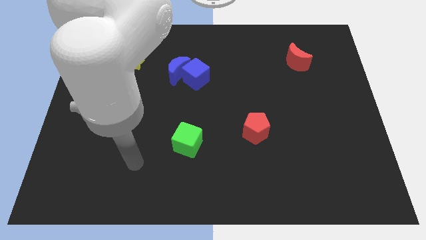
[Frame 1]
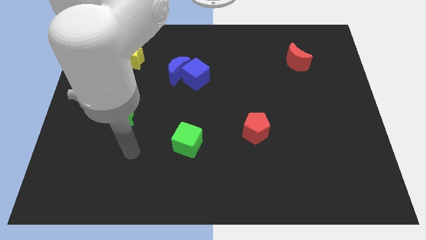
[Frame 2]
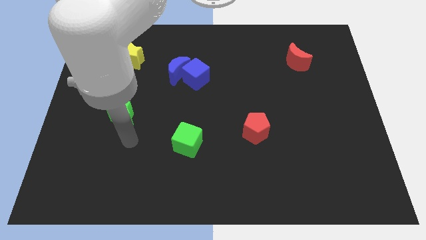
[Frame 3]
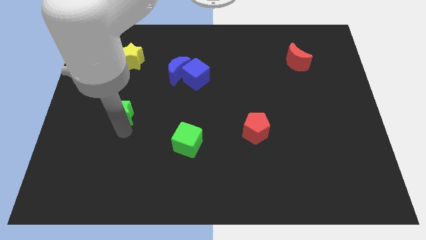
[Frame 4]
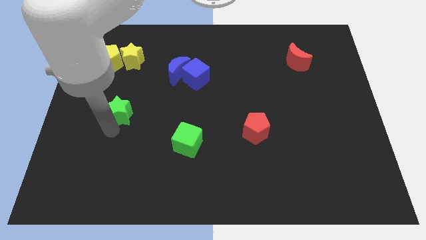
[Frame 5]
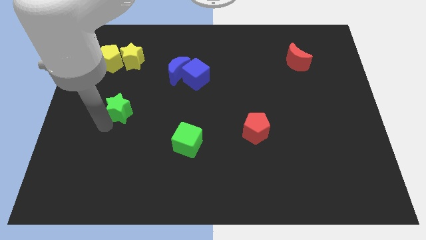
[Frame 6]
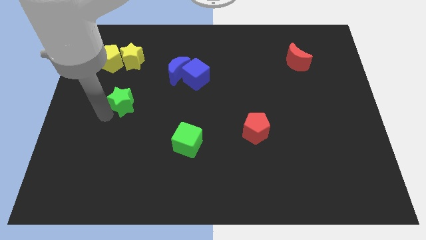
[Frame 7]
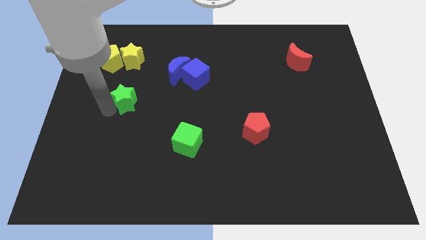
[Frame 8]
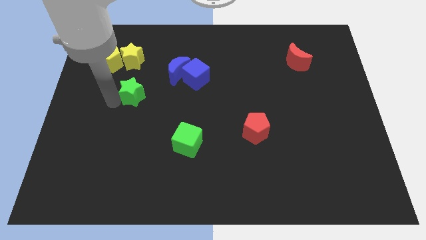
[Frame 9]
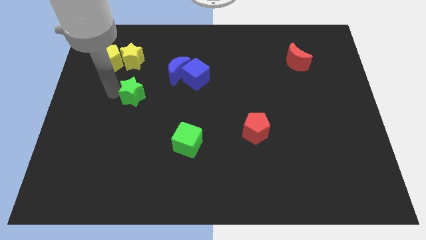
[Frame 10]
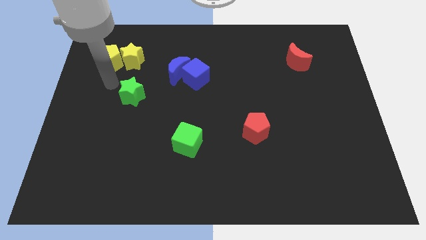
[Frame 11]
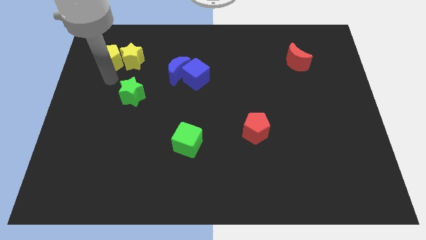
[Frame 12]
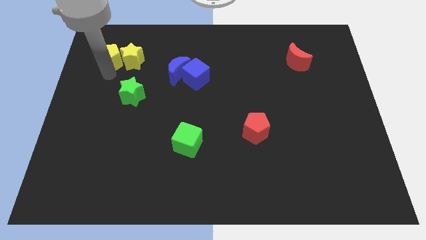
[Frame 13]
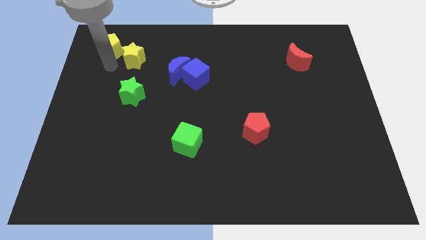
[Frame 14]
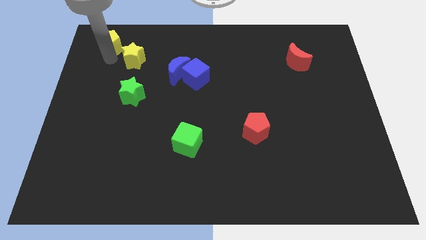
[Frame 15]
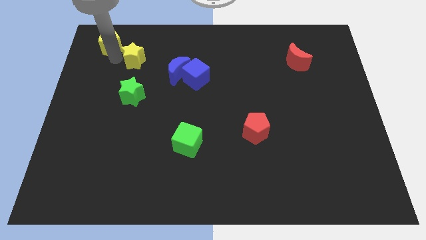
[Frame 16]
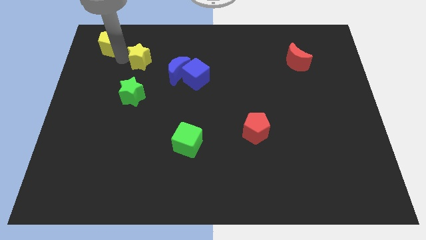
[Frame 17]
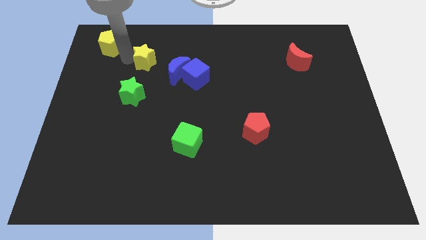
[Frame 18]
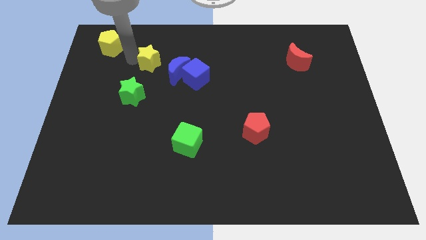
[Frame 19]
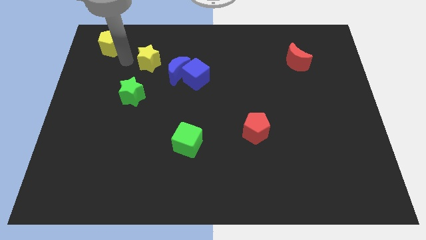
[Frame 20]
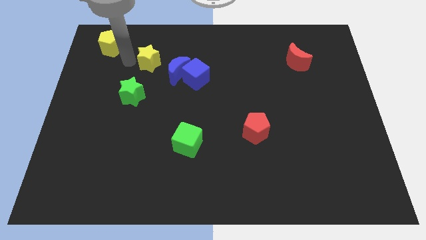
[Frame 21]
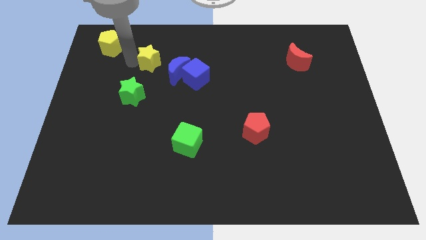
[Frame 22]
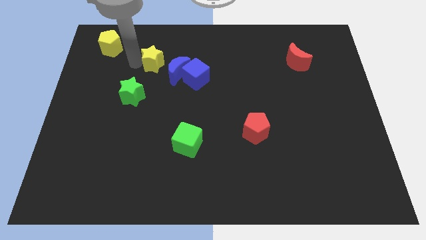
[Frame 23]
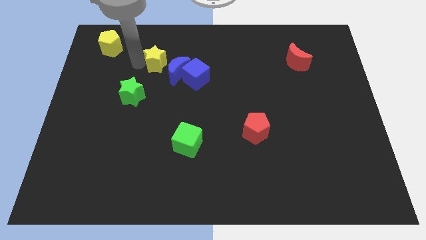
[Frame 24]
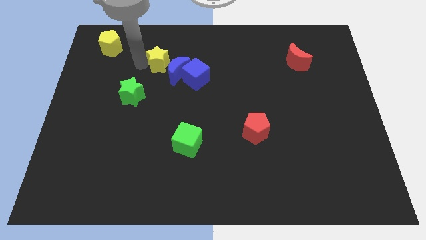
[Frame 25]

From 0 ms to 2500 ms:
slightly slide the yellow star to the right

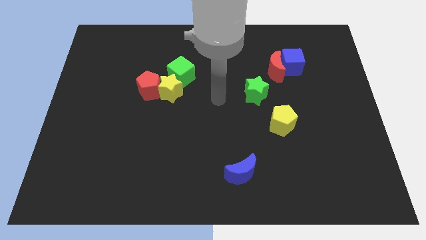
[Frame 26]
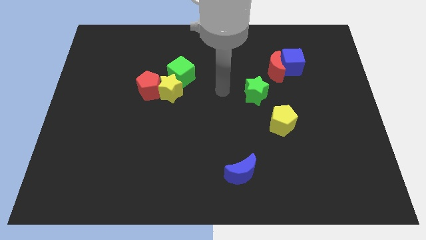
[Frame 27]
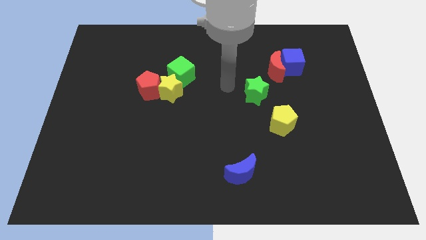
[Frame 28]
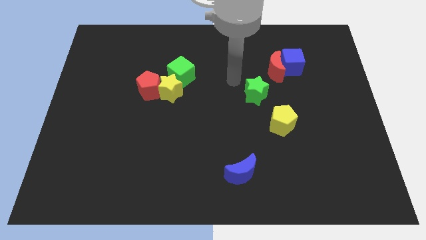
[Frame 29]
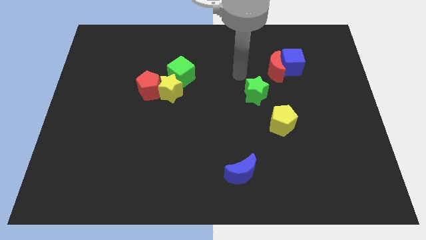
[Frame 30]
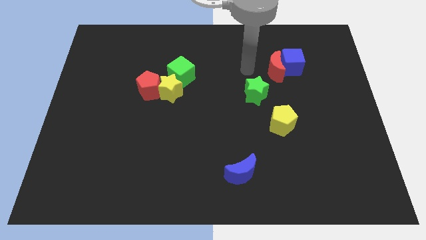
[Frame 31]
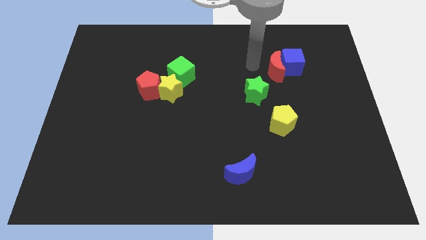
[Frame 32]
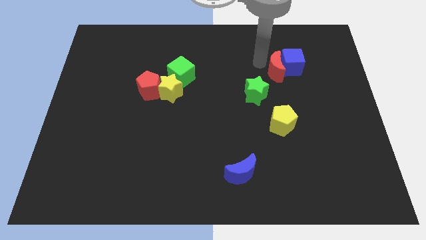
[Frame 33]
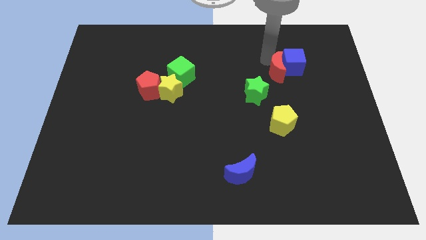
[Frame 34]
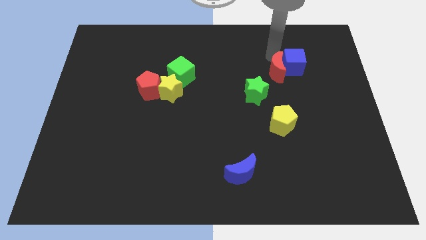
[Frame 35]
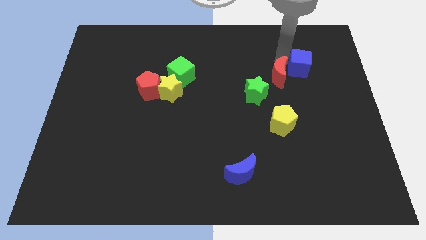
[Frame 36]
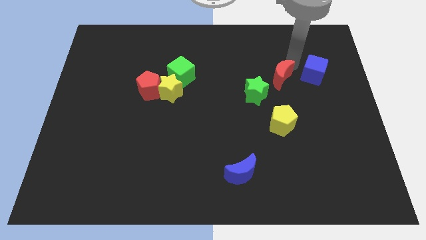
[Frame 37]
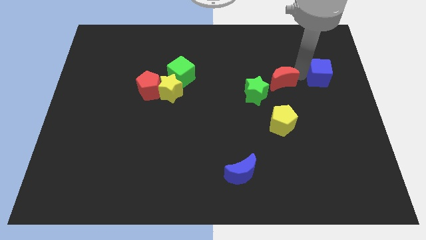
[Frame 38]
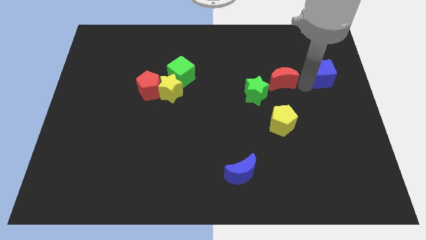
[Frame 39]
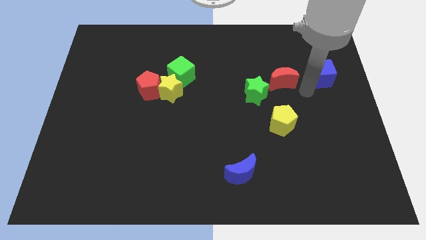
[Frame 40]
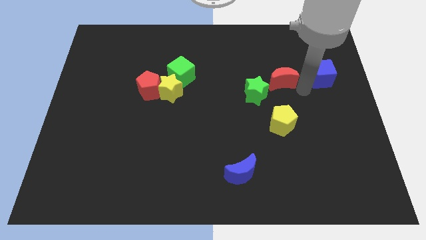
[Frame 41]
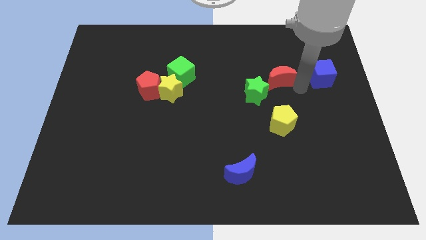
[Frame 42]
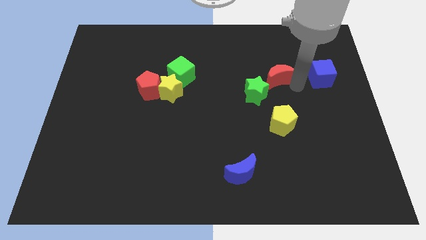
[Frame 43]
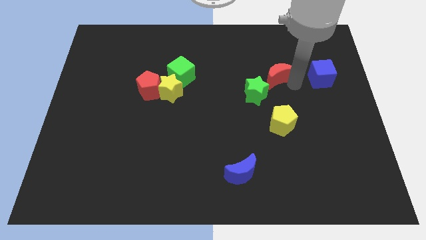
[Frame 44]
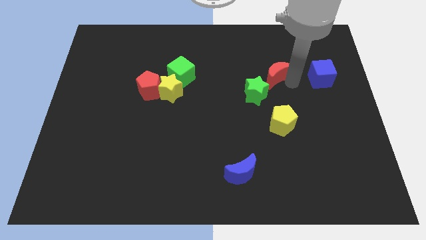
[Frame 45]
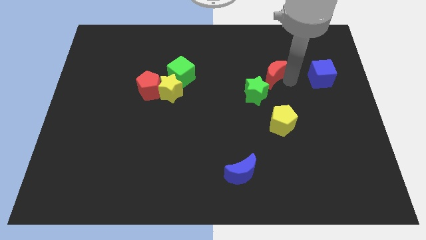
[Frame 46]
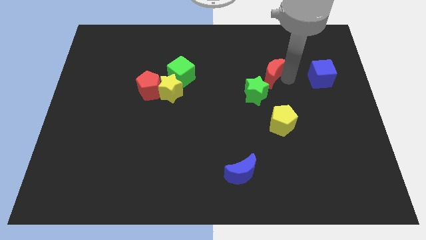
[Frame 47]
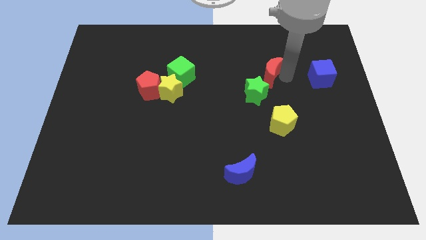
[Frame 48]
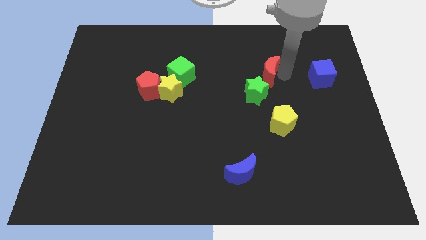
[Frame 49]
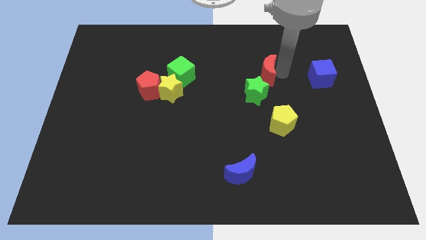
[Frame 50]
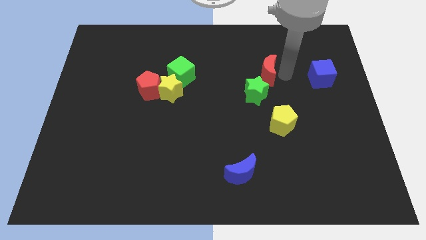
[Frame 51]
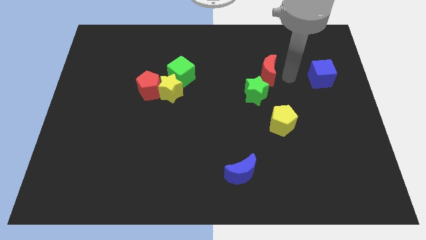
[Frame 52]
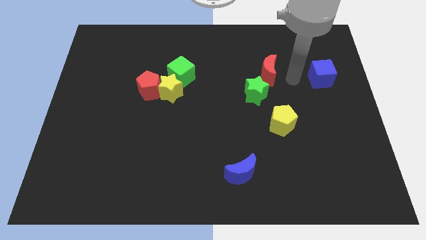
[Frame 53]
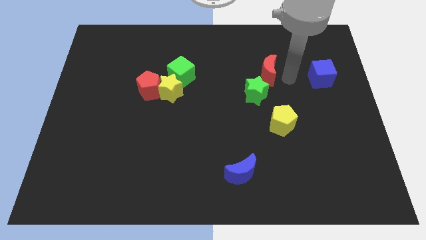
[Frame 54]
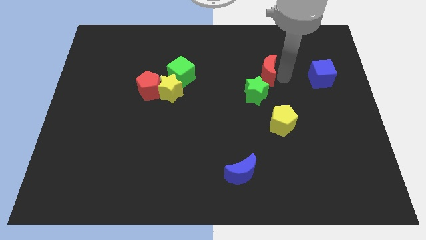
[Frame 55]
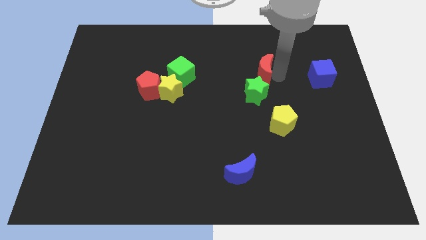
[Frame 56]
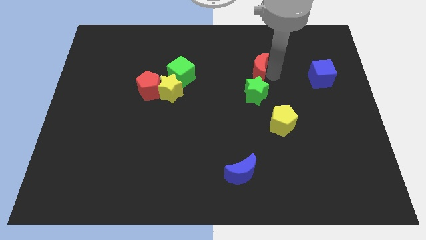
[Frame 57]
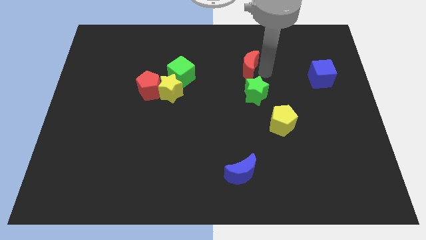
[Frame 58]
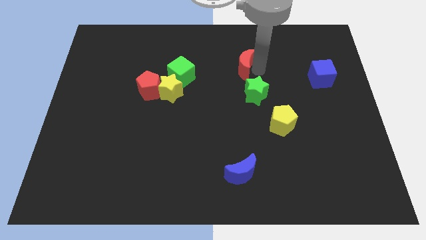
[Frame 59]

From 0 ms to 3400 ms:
slide the red moon somewhat left

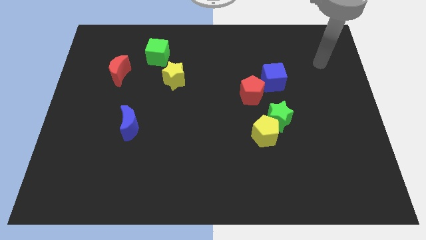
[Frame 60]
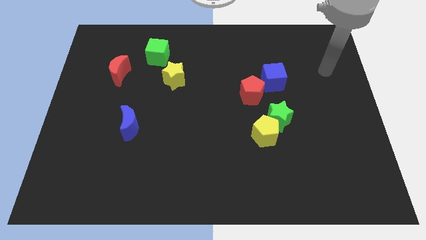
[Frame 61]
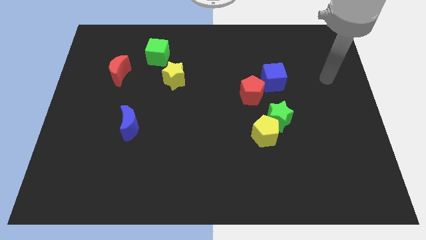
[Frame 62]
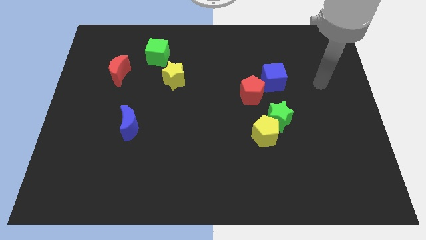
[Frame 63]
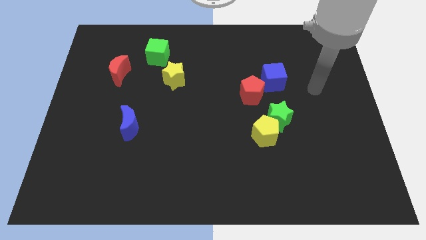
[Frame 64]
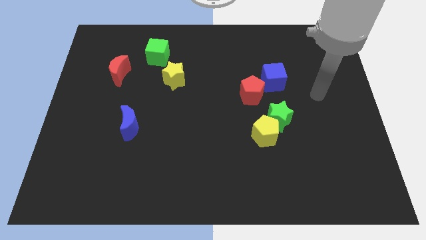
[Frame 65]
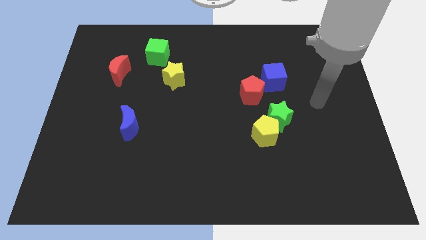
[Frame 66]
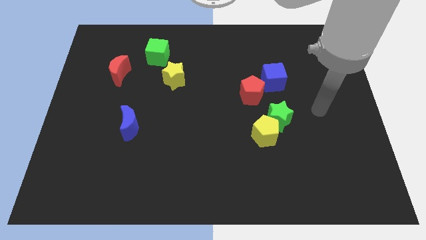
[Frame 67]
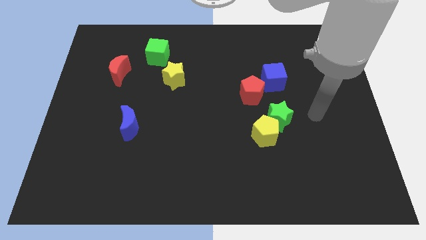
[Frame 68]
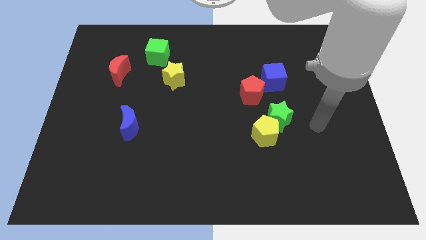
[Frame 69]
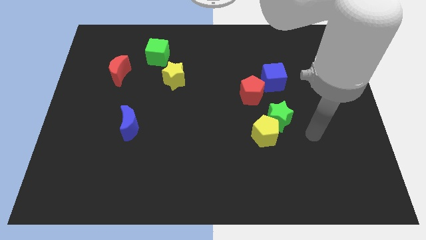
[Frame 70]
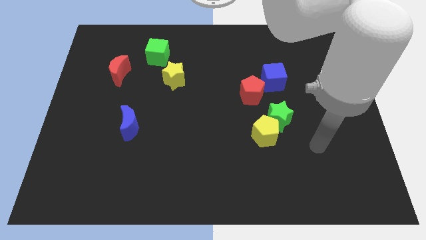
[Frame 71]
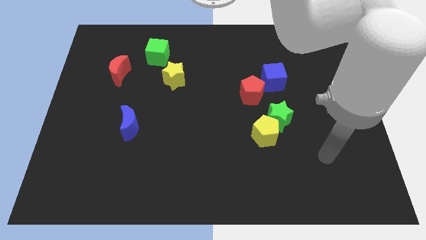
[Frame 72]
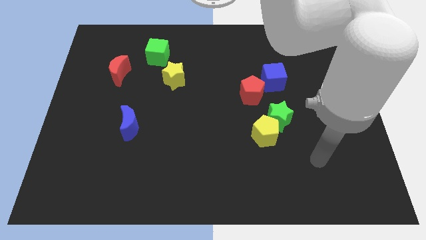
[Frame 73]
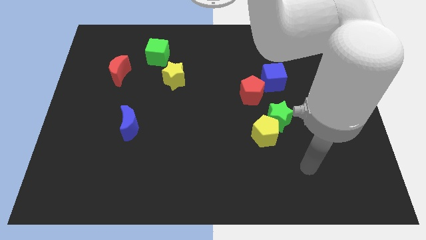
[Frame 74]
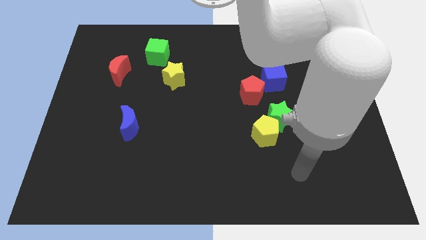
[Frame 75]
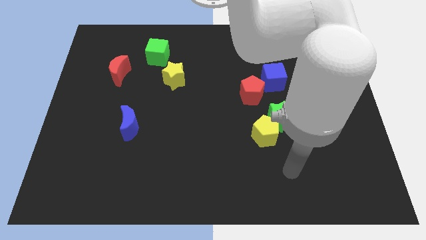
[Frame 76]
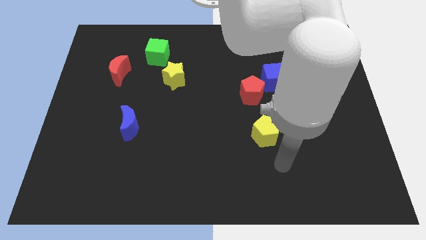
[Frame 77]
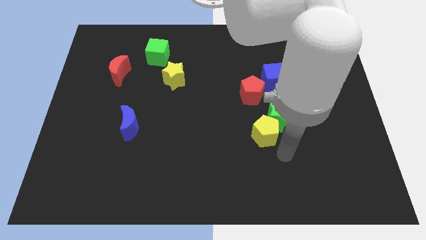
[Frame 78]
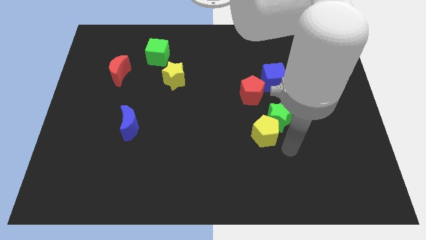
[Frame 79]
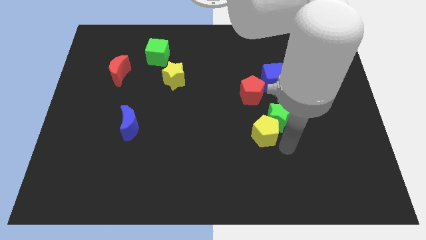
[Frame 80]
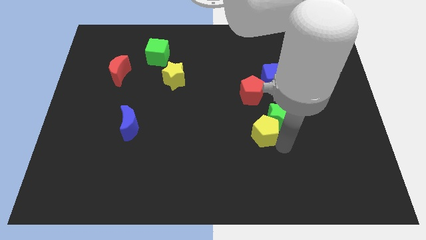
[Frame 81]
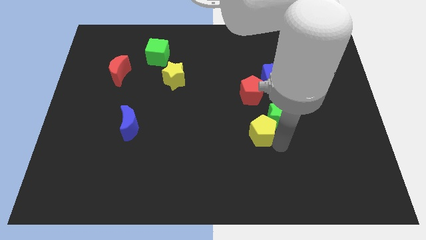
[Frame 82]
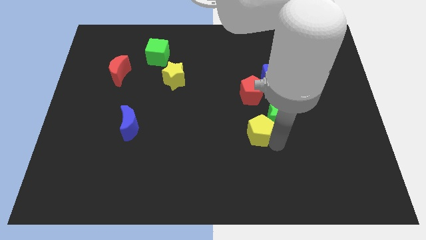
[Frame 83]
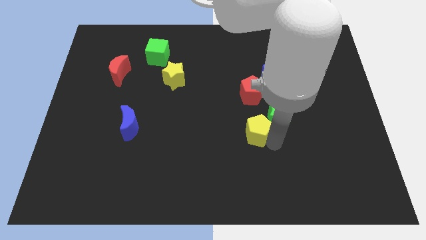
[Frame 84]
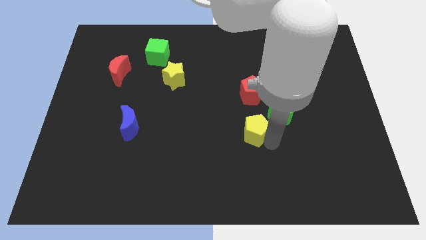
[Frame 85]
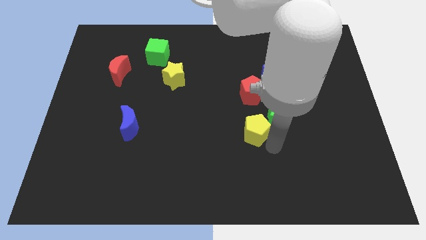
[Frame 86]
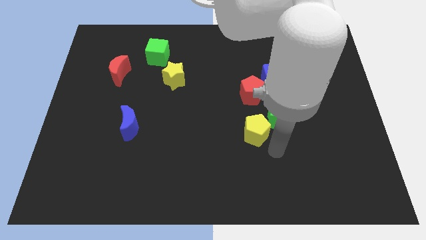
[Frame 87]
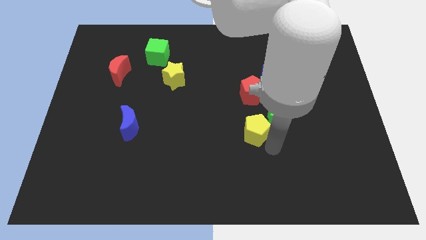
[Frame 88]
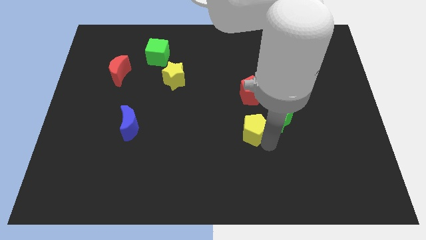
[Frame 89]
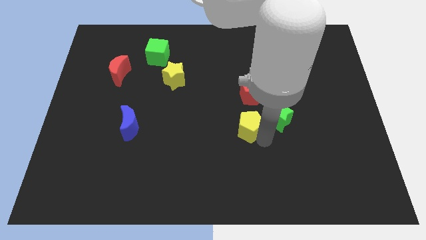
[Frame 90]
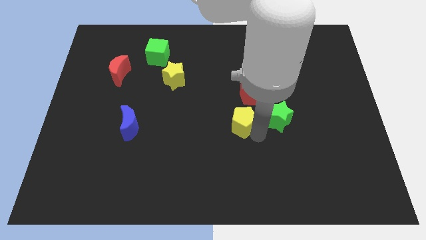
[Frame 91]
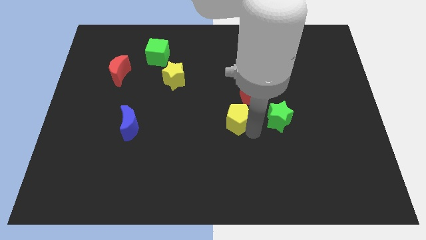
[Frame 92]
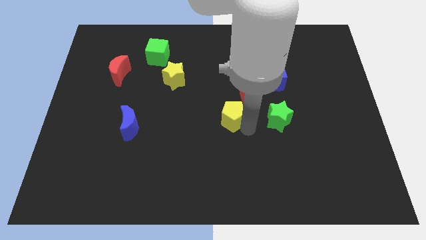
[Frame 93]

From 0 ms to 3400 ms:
move the yellow pentagon up and left a bit
